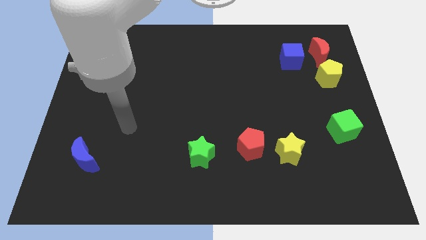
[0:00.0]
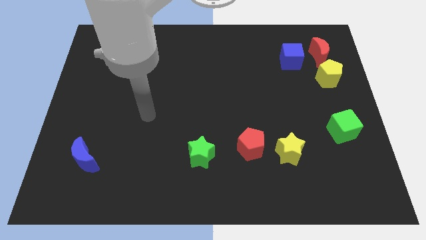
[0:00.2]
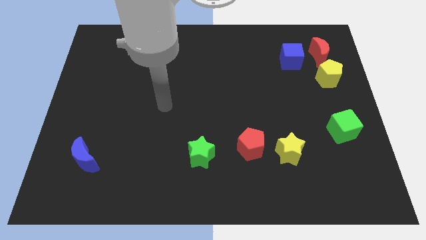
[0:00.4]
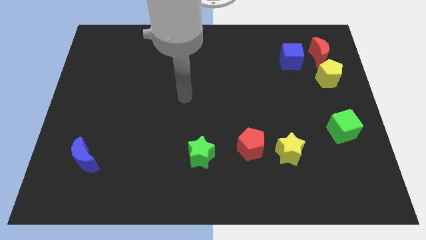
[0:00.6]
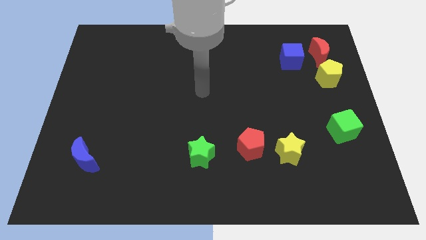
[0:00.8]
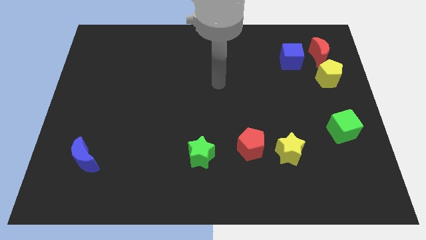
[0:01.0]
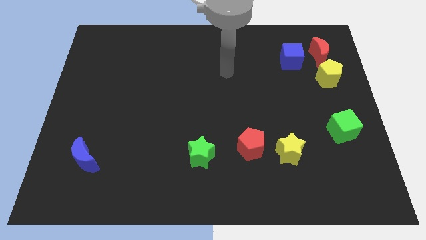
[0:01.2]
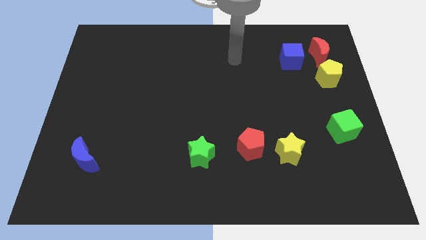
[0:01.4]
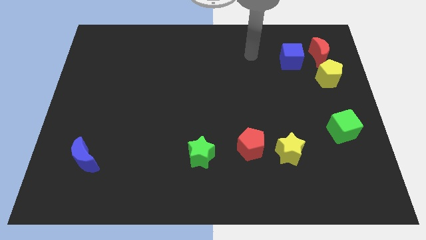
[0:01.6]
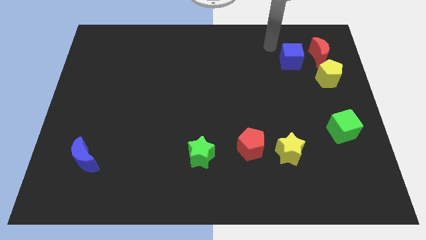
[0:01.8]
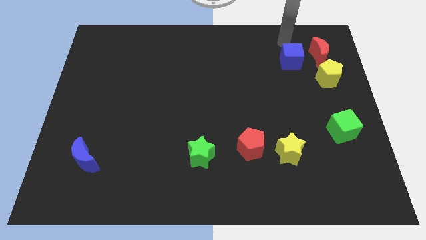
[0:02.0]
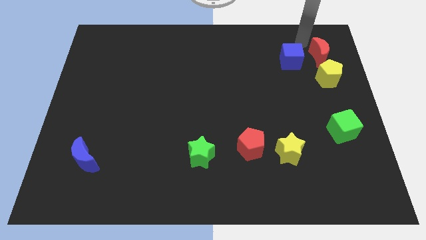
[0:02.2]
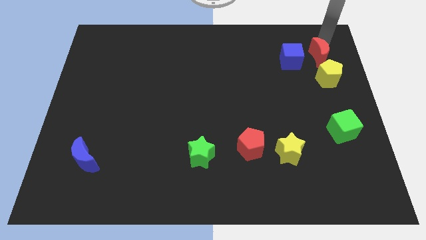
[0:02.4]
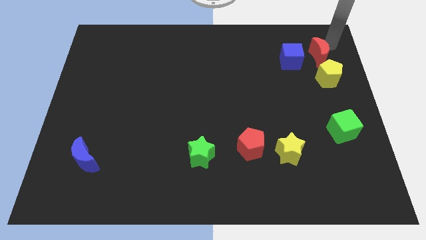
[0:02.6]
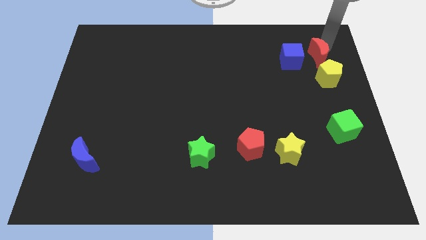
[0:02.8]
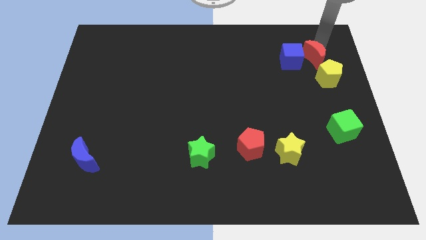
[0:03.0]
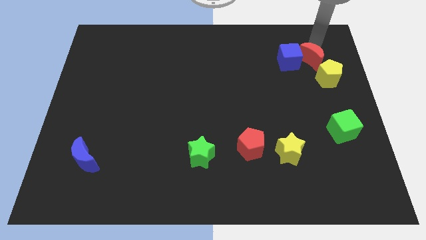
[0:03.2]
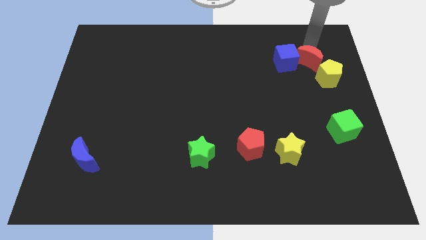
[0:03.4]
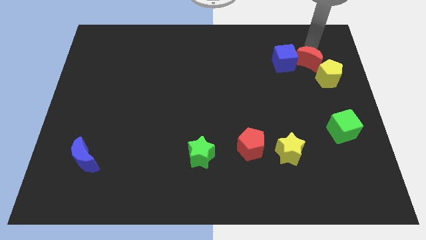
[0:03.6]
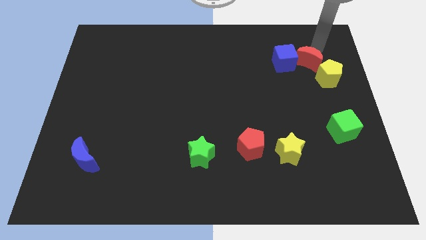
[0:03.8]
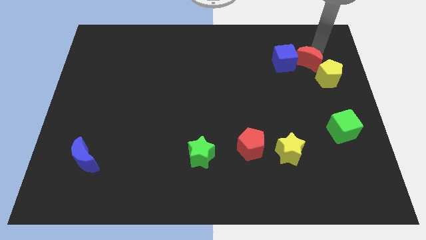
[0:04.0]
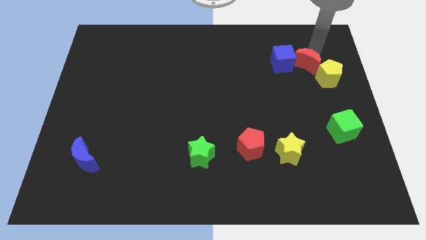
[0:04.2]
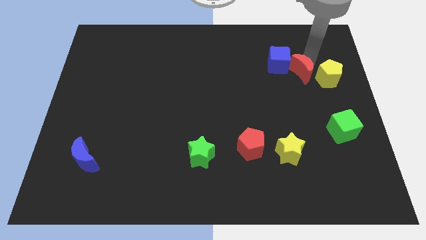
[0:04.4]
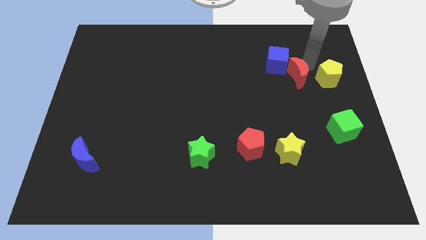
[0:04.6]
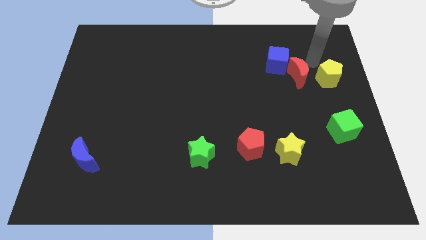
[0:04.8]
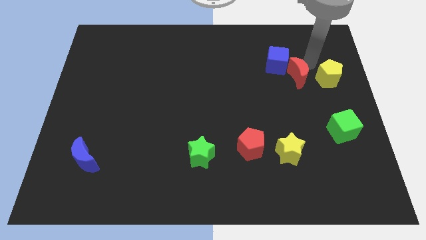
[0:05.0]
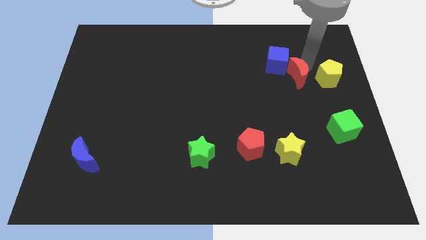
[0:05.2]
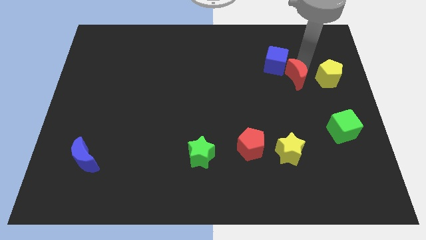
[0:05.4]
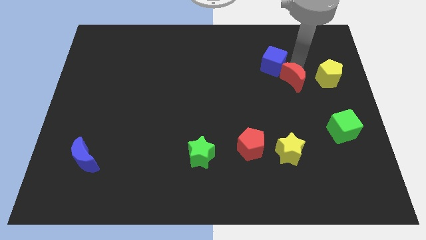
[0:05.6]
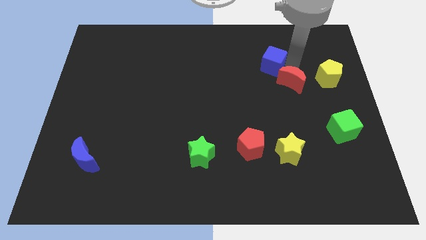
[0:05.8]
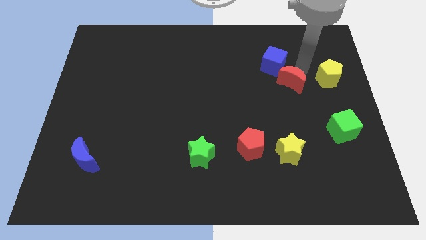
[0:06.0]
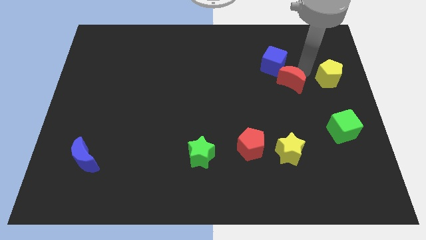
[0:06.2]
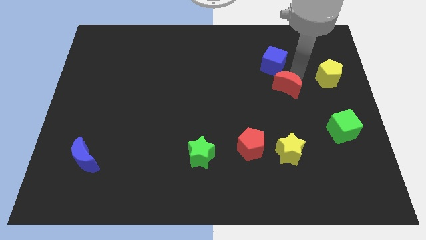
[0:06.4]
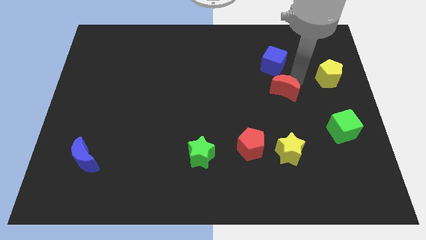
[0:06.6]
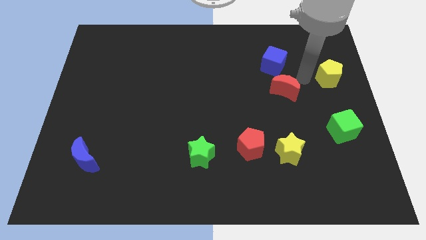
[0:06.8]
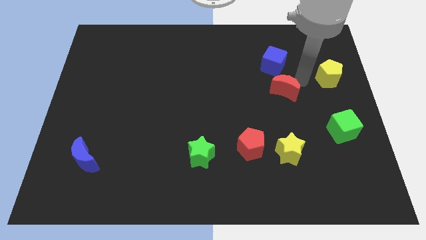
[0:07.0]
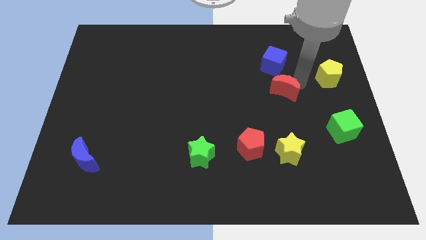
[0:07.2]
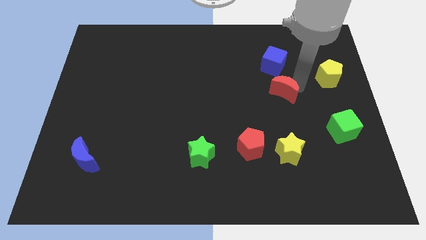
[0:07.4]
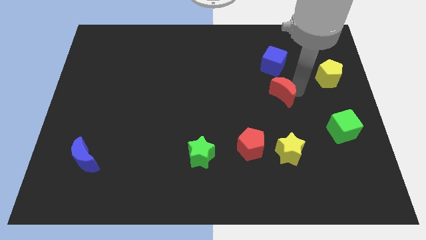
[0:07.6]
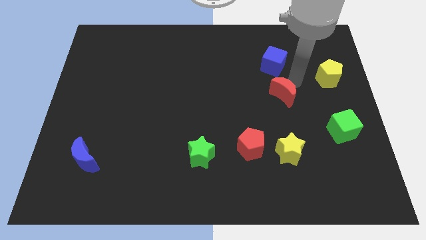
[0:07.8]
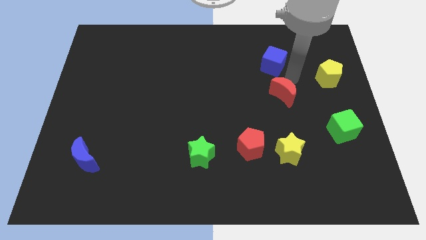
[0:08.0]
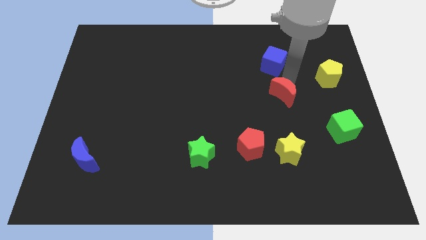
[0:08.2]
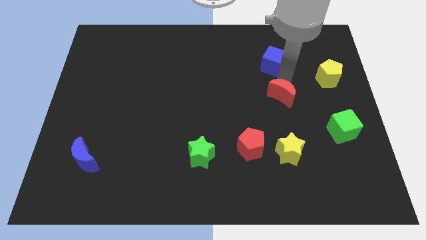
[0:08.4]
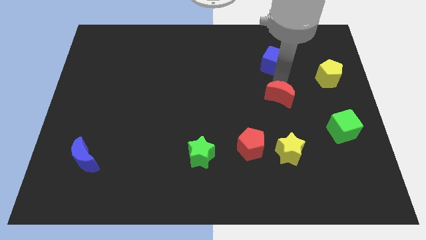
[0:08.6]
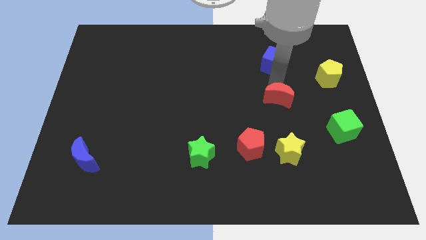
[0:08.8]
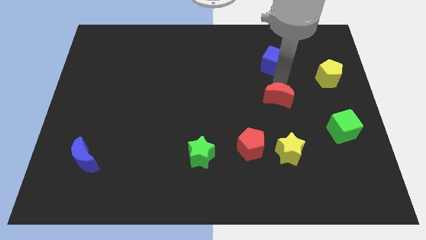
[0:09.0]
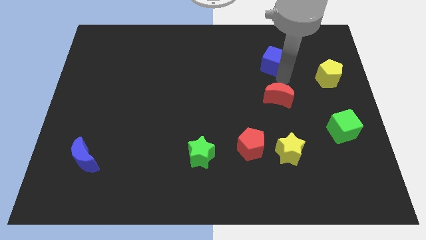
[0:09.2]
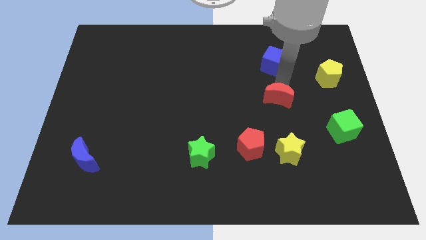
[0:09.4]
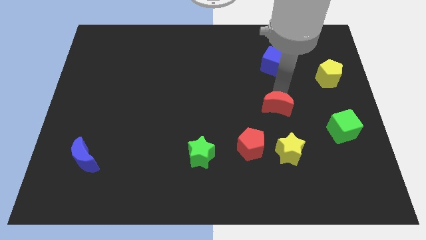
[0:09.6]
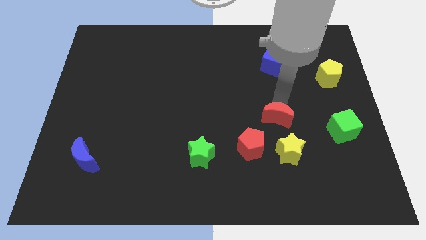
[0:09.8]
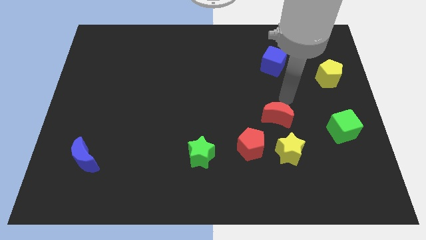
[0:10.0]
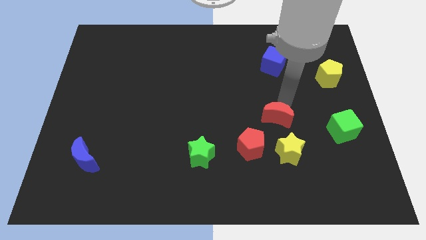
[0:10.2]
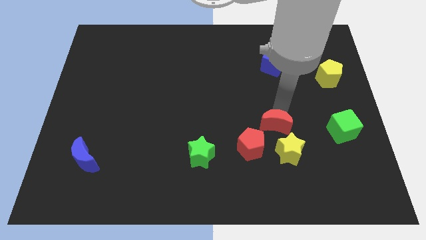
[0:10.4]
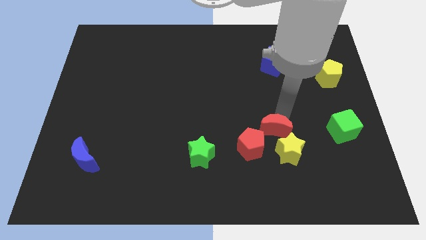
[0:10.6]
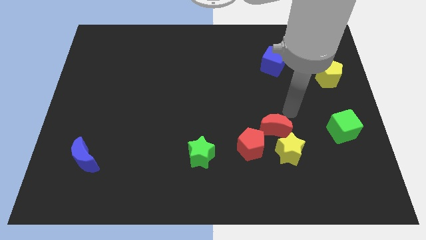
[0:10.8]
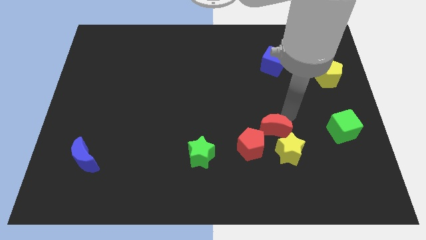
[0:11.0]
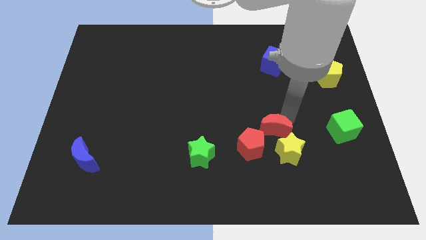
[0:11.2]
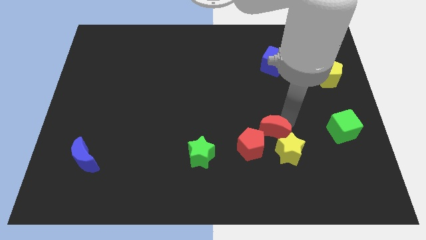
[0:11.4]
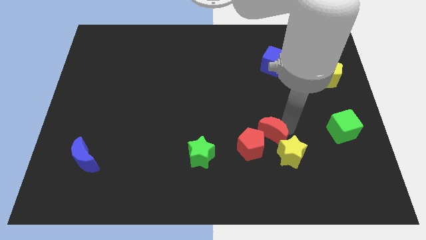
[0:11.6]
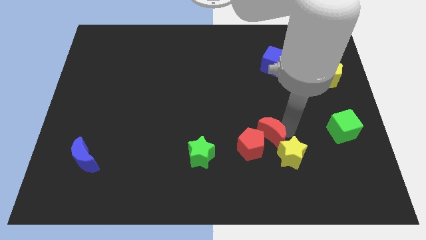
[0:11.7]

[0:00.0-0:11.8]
put the red moon close to the red pentagon
